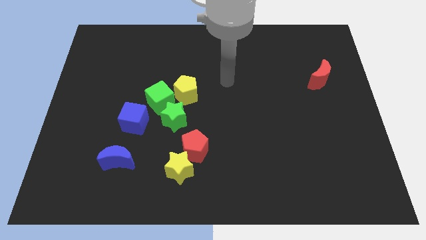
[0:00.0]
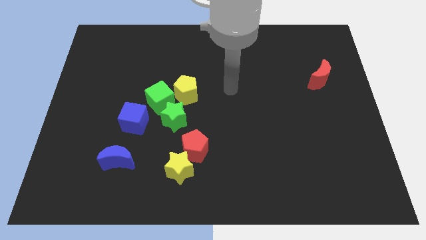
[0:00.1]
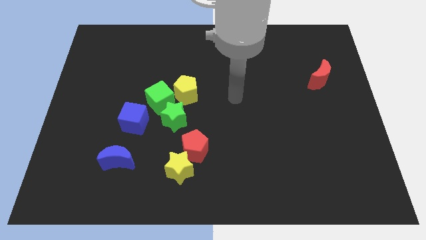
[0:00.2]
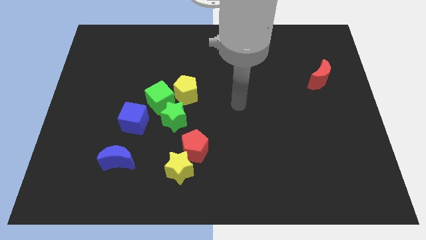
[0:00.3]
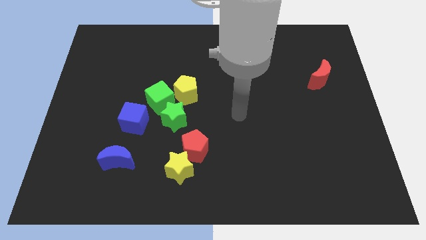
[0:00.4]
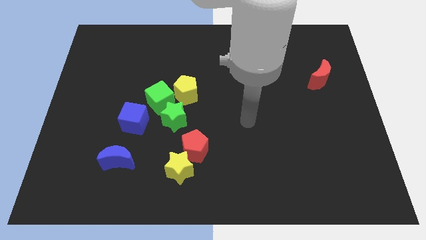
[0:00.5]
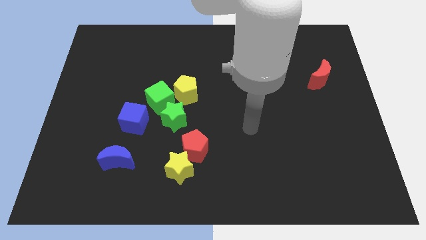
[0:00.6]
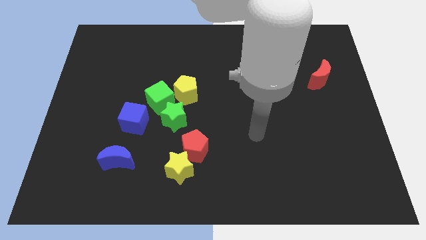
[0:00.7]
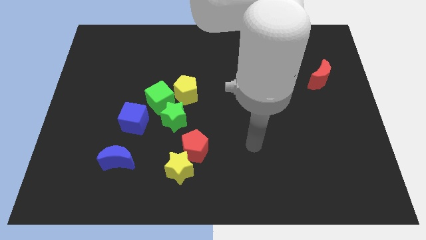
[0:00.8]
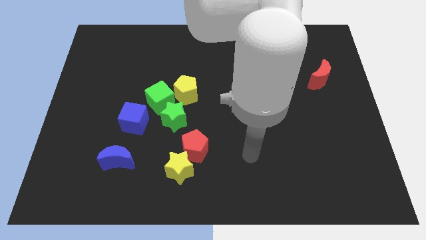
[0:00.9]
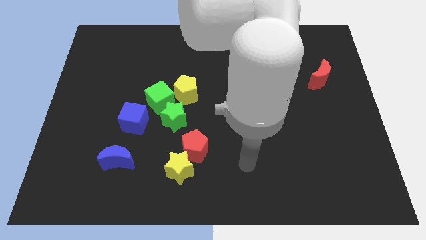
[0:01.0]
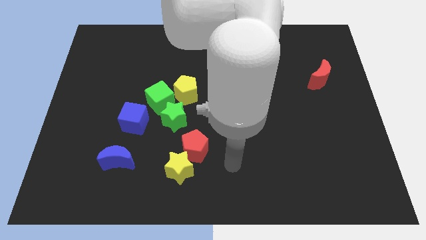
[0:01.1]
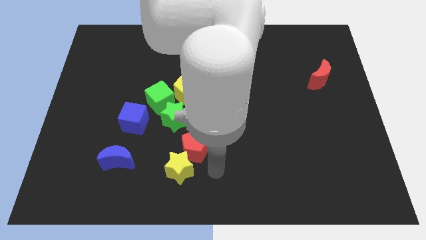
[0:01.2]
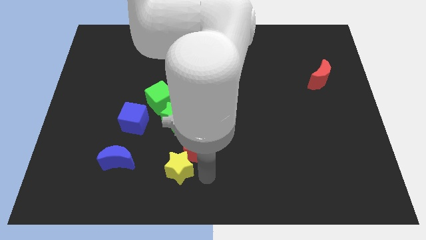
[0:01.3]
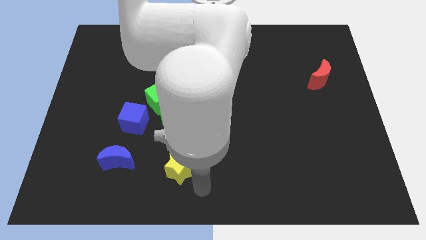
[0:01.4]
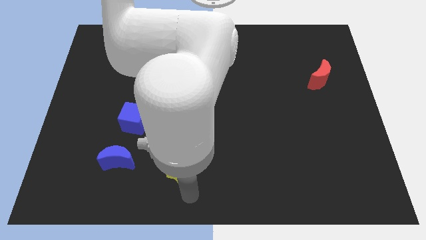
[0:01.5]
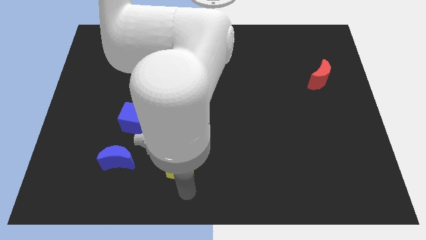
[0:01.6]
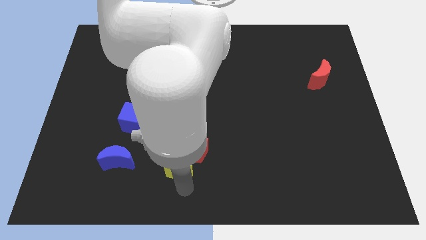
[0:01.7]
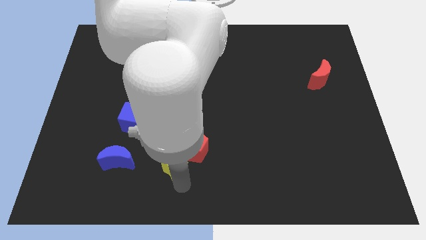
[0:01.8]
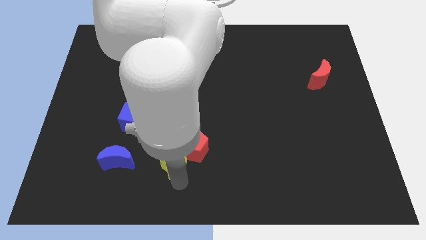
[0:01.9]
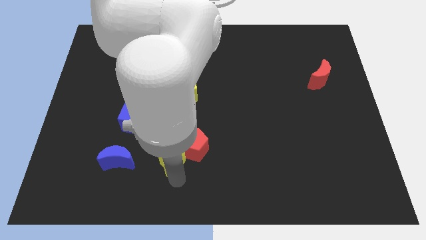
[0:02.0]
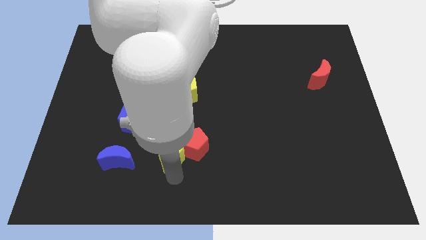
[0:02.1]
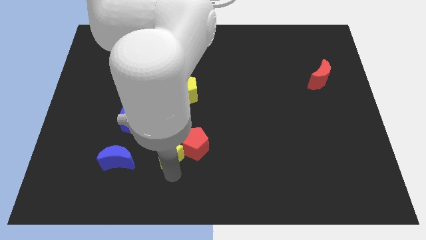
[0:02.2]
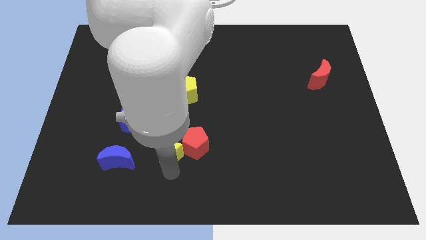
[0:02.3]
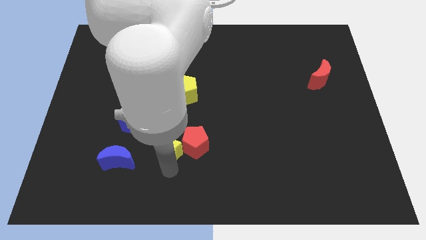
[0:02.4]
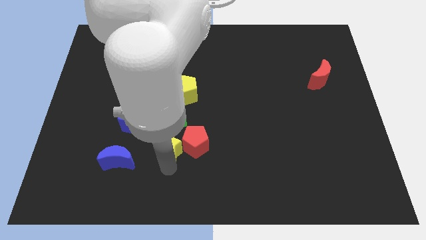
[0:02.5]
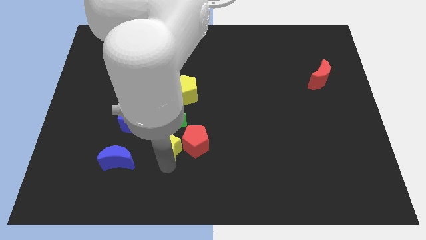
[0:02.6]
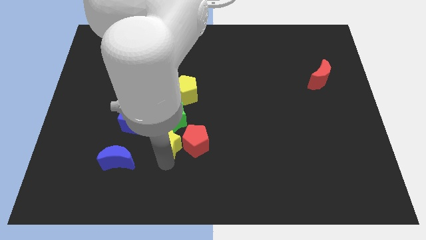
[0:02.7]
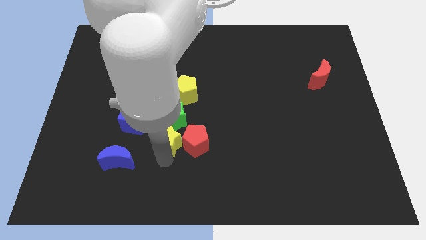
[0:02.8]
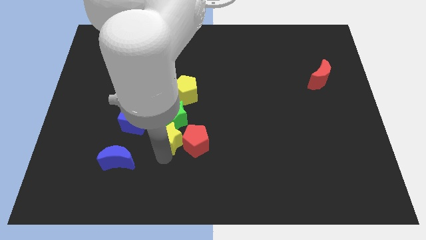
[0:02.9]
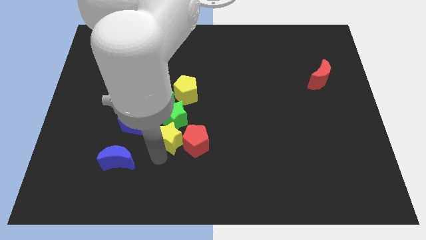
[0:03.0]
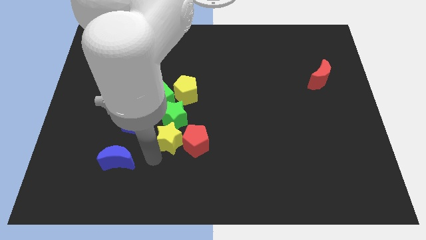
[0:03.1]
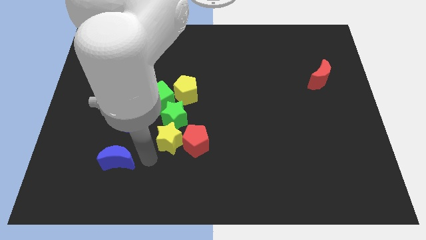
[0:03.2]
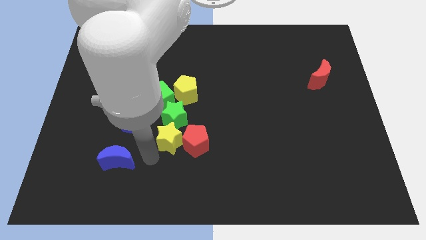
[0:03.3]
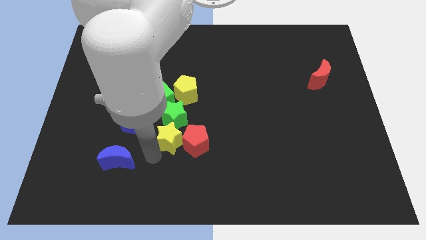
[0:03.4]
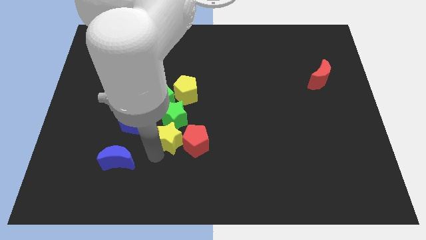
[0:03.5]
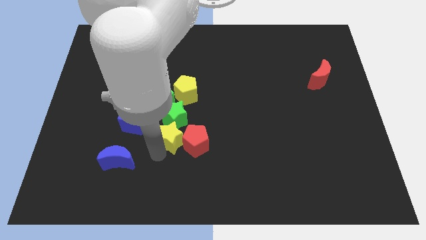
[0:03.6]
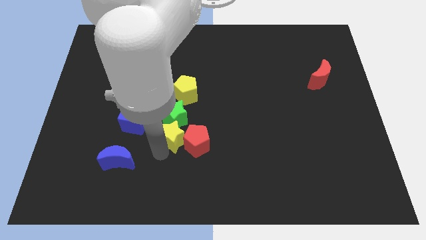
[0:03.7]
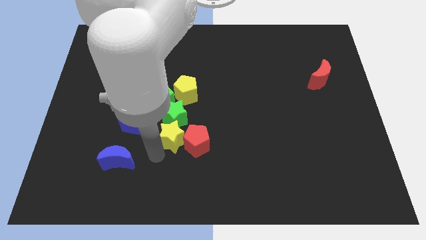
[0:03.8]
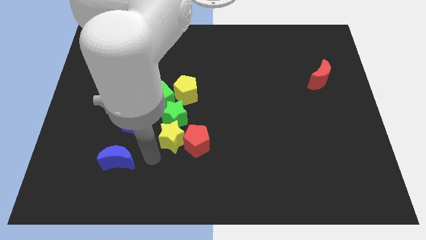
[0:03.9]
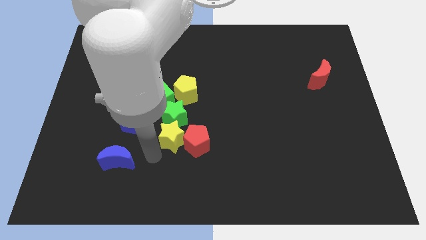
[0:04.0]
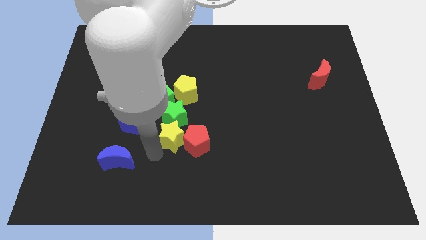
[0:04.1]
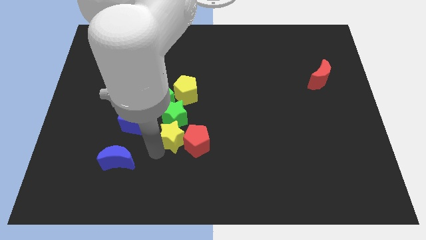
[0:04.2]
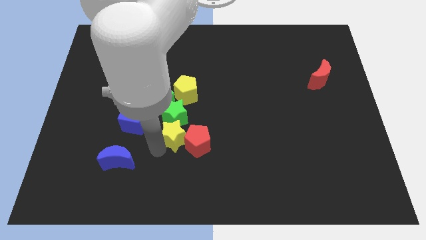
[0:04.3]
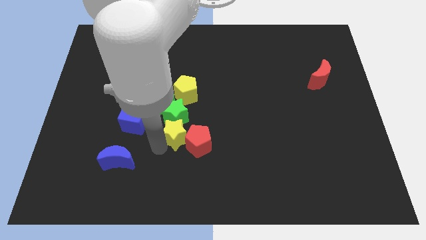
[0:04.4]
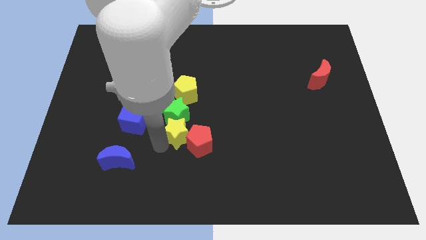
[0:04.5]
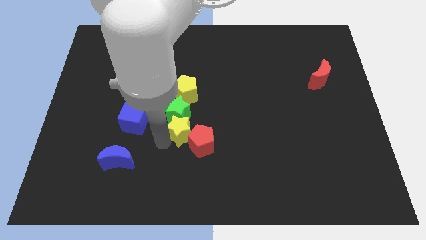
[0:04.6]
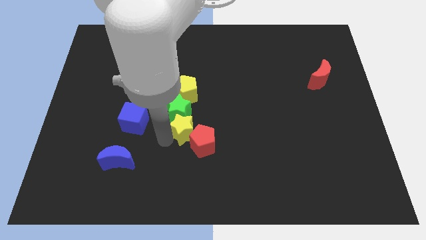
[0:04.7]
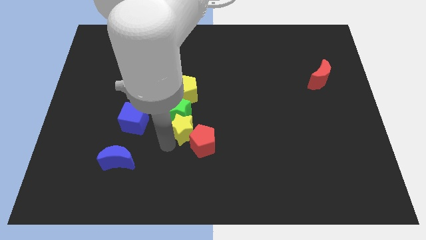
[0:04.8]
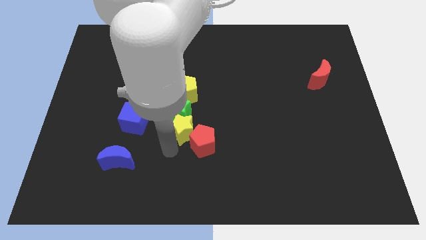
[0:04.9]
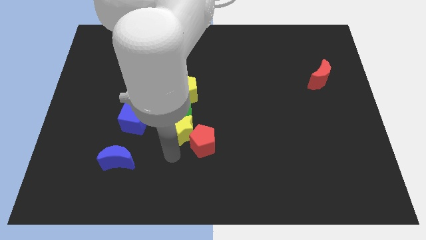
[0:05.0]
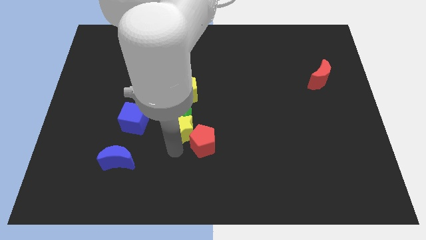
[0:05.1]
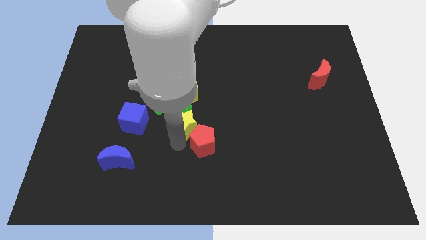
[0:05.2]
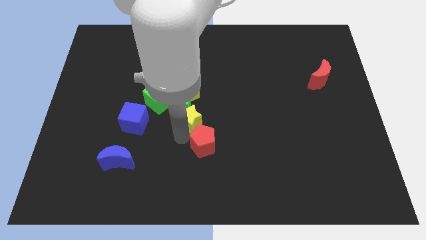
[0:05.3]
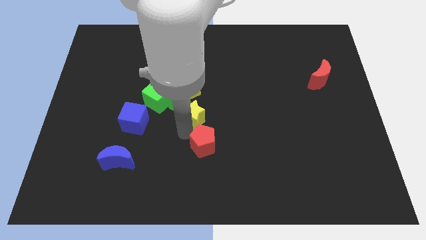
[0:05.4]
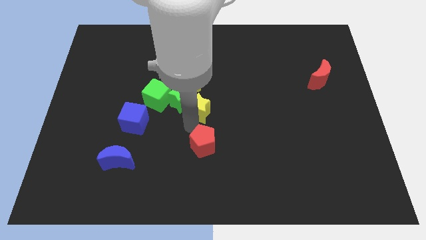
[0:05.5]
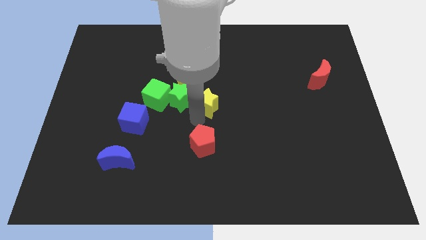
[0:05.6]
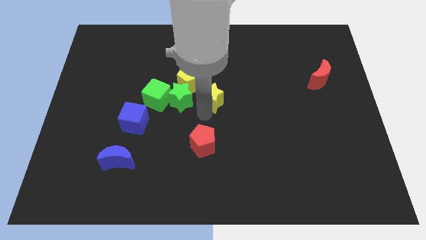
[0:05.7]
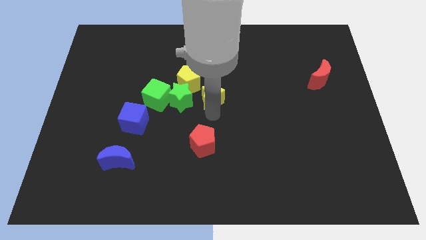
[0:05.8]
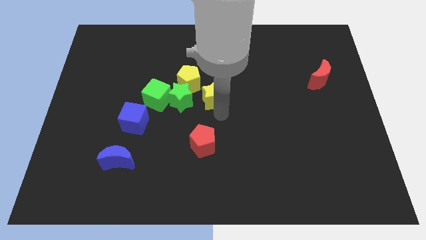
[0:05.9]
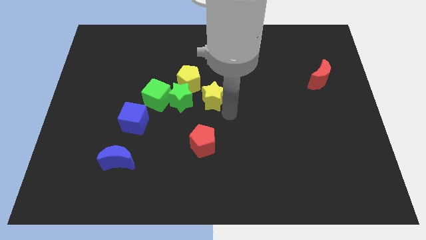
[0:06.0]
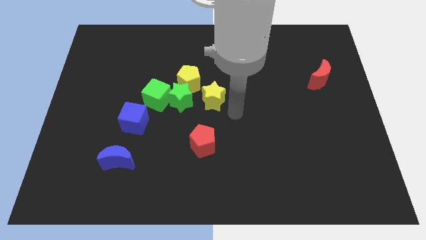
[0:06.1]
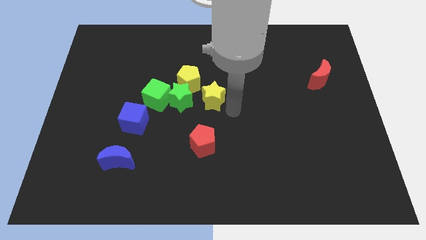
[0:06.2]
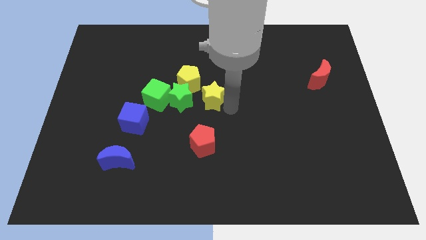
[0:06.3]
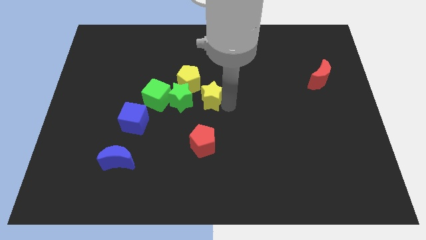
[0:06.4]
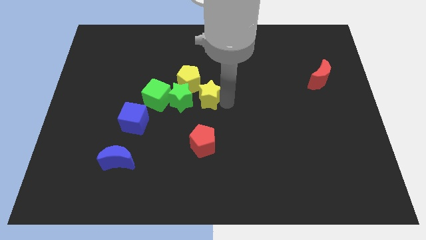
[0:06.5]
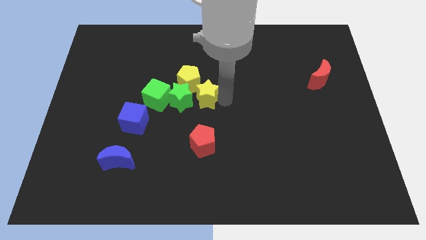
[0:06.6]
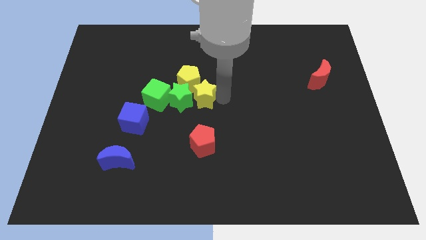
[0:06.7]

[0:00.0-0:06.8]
move the yellow star close to the yellow pentagon
